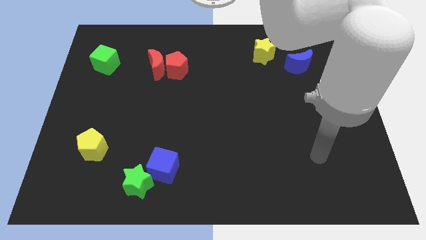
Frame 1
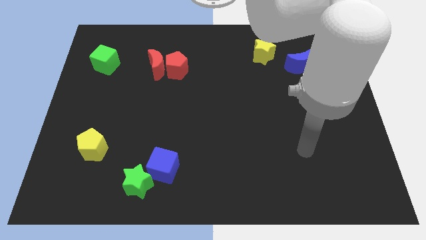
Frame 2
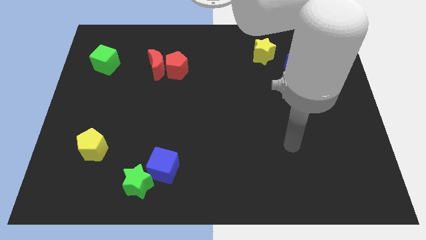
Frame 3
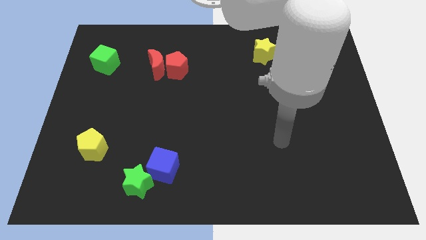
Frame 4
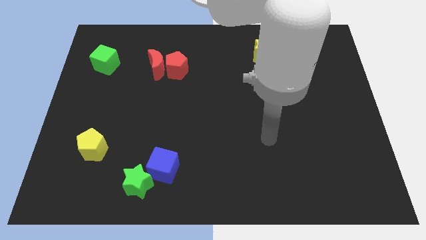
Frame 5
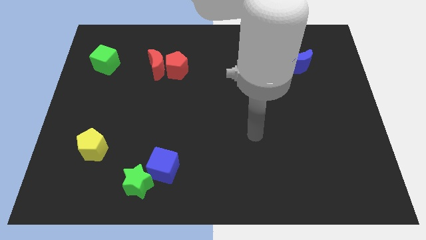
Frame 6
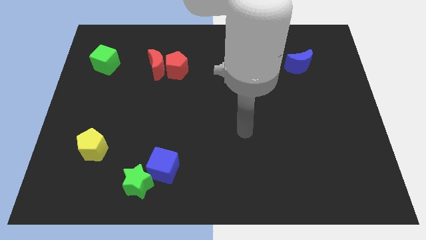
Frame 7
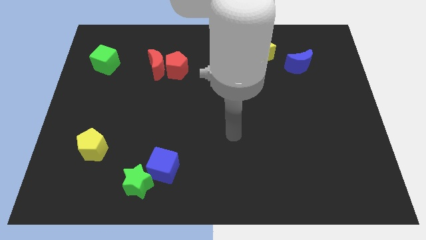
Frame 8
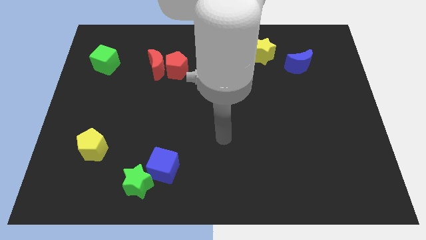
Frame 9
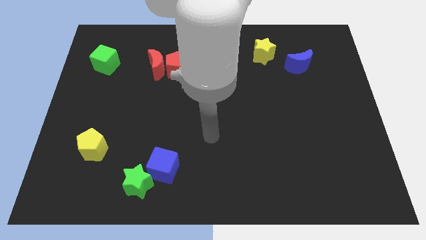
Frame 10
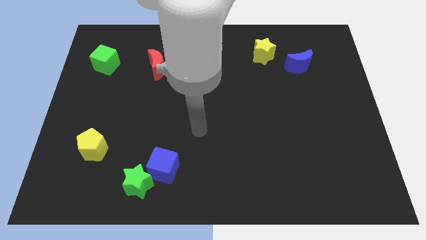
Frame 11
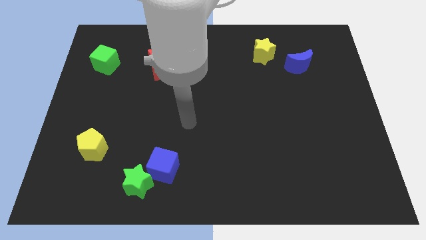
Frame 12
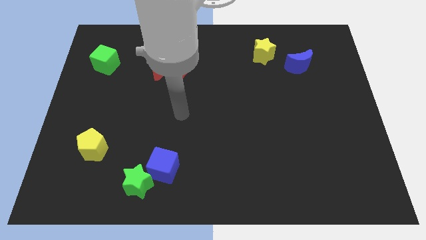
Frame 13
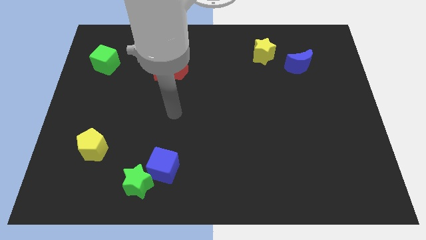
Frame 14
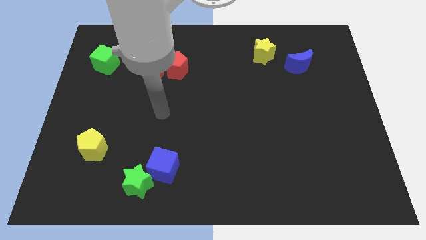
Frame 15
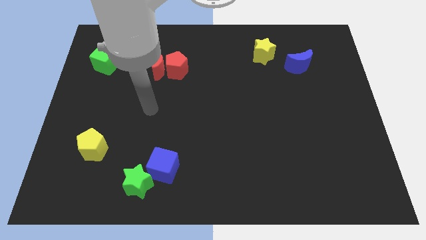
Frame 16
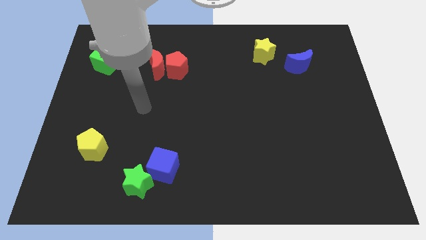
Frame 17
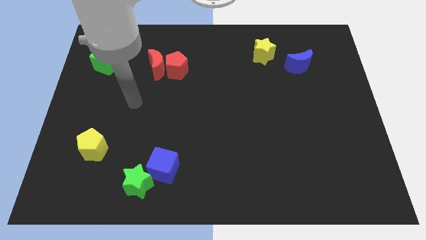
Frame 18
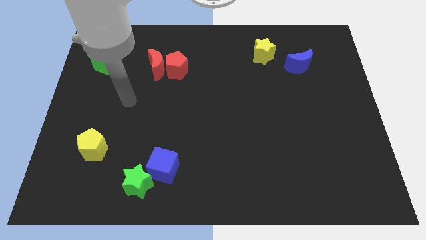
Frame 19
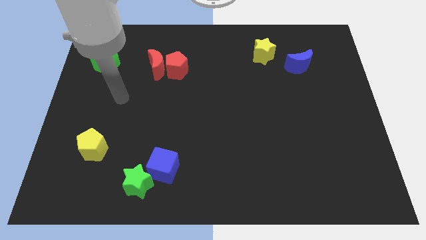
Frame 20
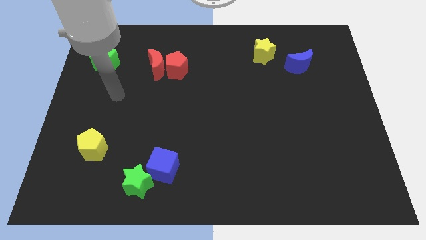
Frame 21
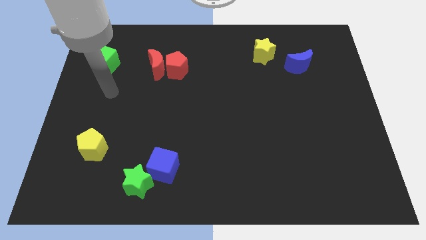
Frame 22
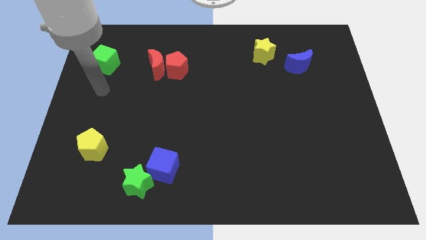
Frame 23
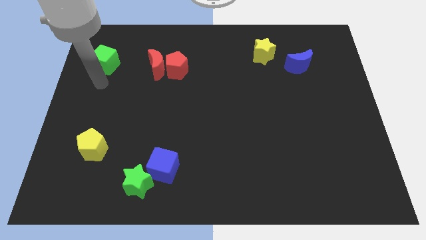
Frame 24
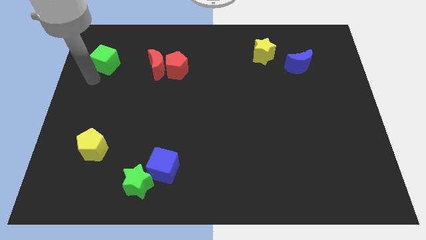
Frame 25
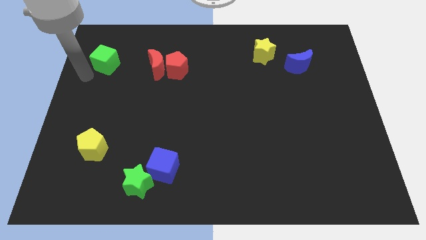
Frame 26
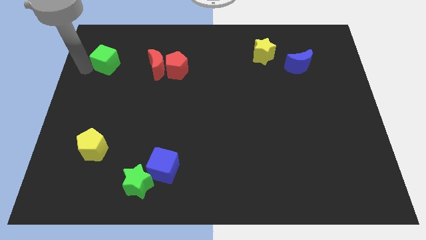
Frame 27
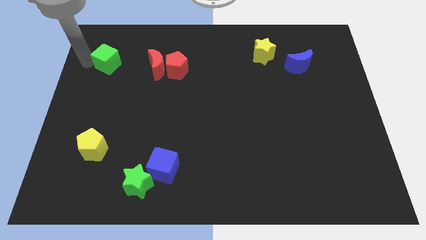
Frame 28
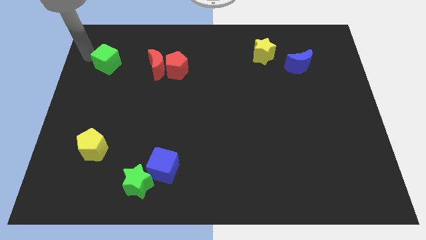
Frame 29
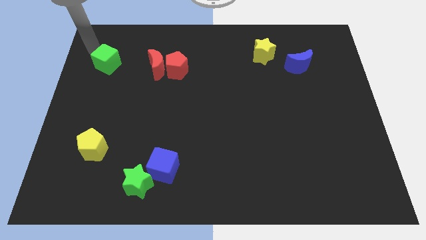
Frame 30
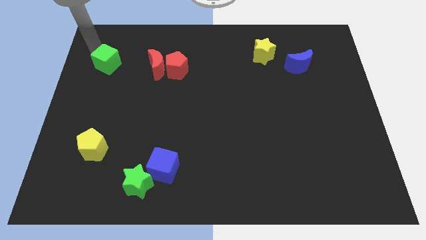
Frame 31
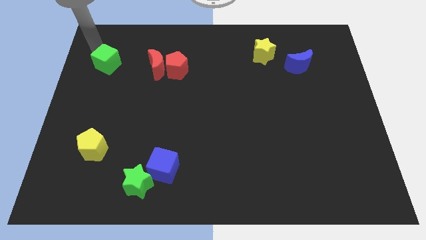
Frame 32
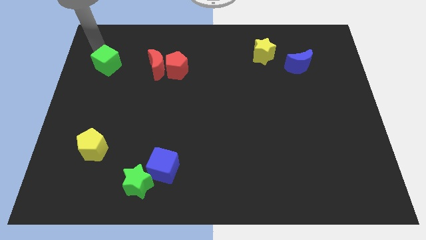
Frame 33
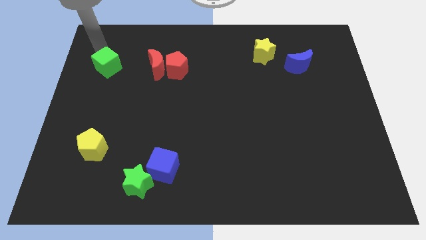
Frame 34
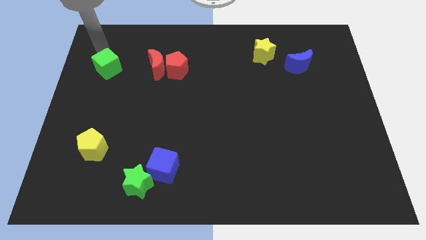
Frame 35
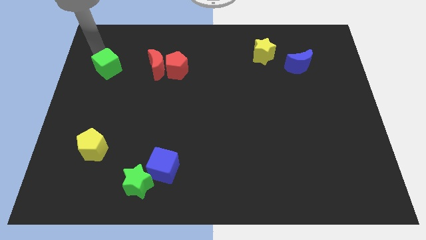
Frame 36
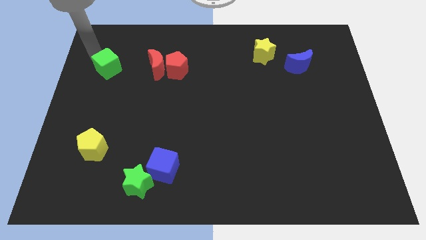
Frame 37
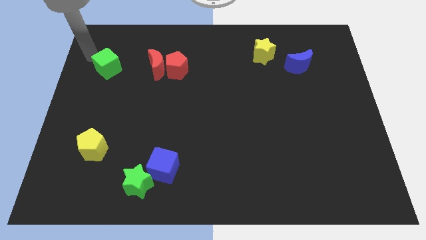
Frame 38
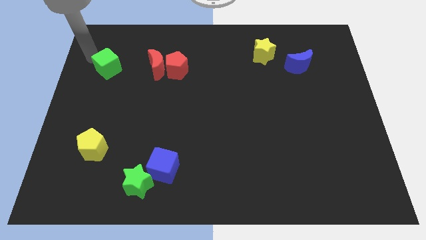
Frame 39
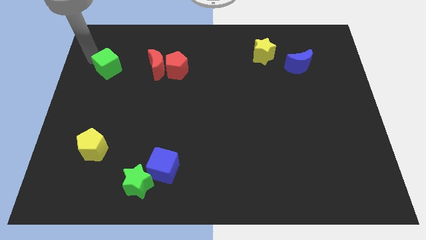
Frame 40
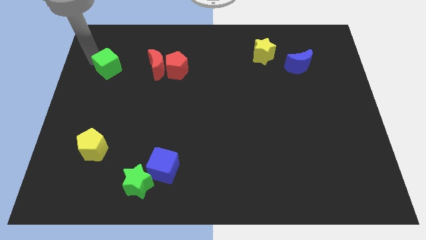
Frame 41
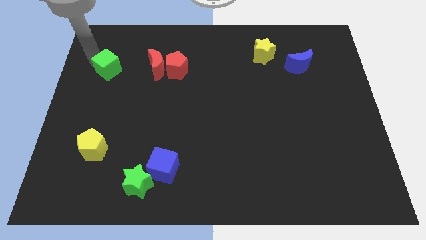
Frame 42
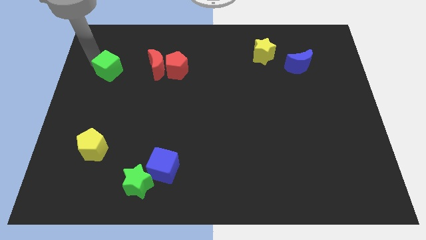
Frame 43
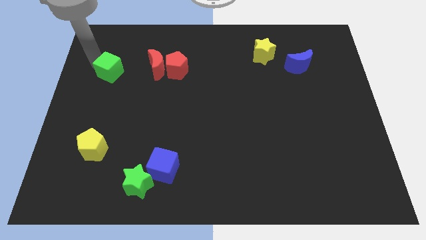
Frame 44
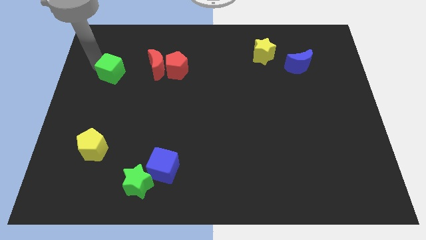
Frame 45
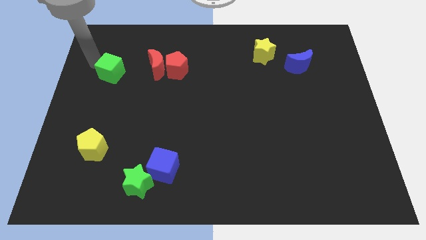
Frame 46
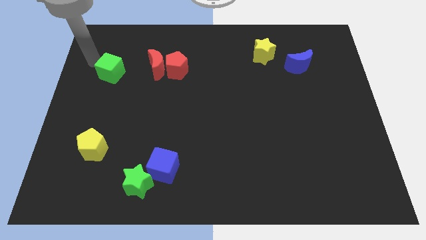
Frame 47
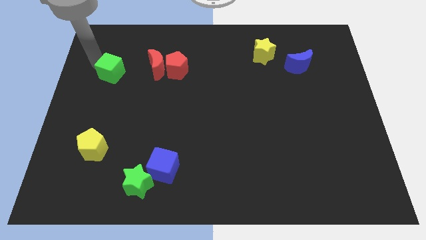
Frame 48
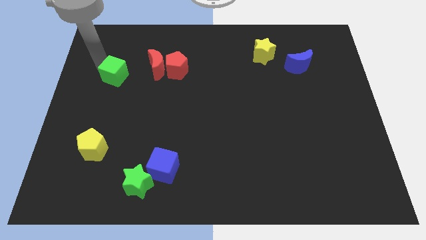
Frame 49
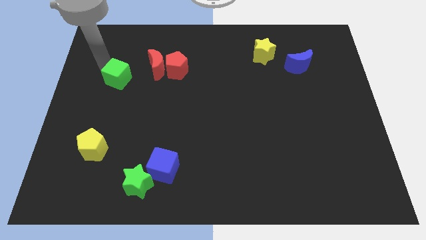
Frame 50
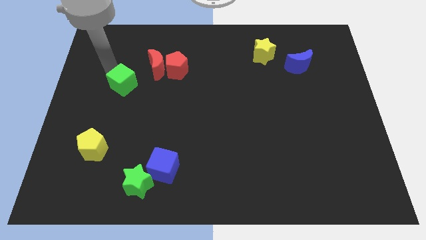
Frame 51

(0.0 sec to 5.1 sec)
slide the green cube slightly down and then right

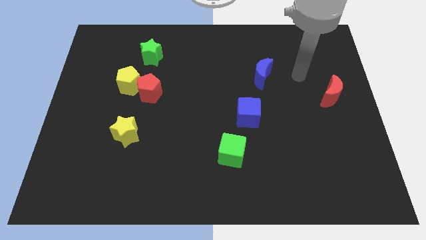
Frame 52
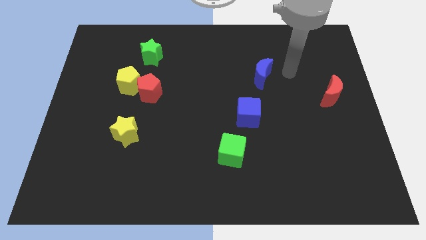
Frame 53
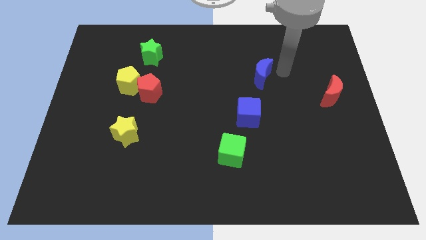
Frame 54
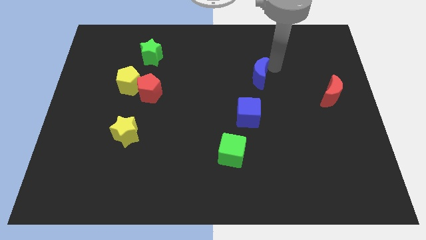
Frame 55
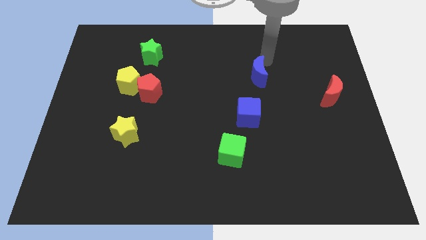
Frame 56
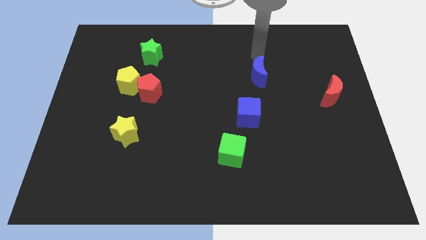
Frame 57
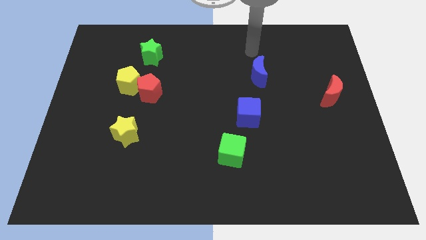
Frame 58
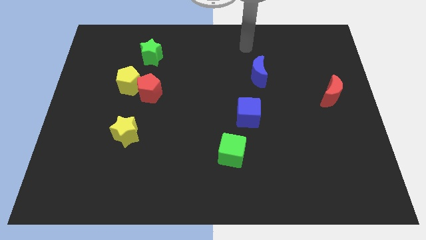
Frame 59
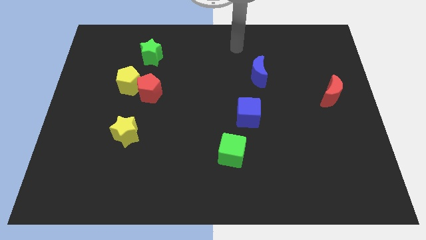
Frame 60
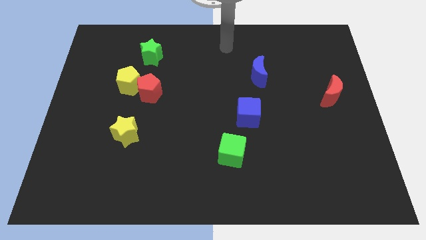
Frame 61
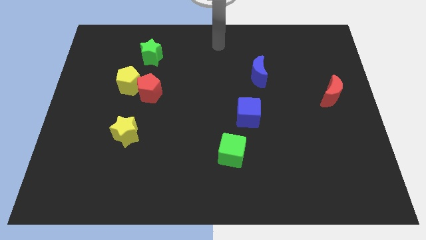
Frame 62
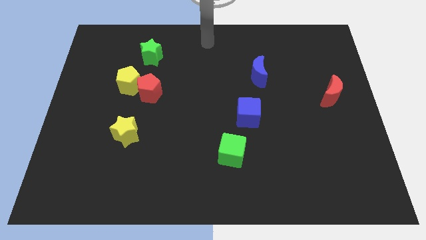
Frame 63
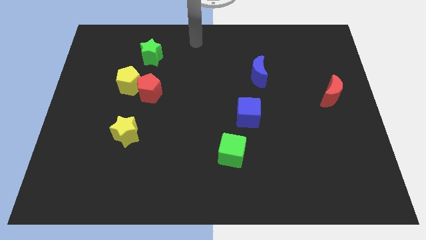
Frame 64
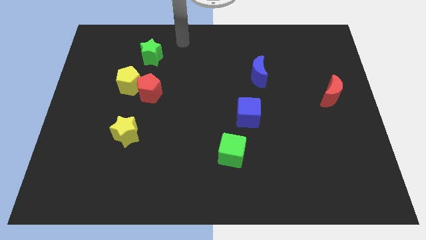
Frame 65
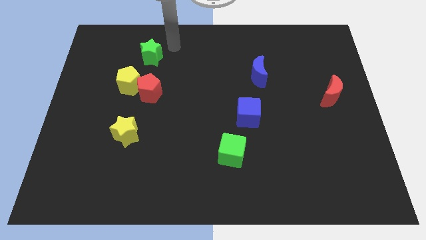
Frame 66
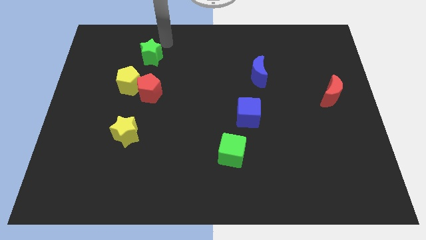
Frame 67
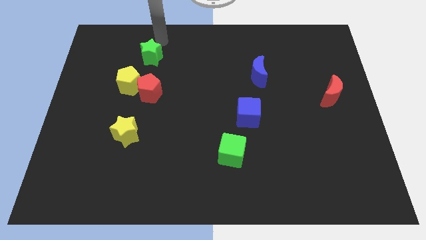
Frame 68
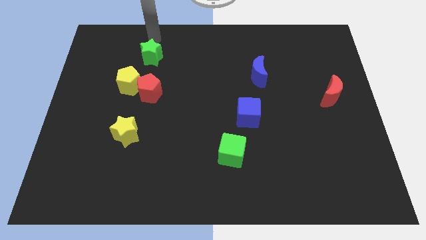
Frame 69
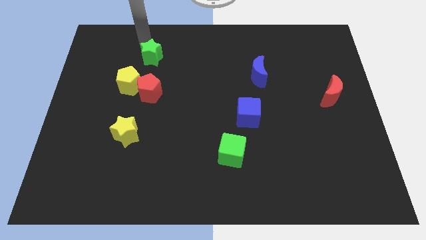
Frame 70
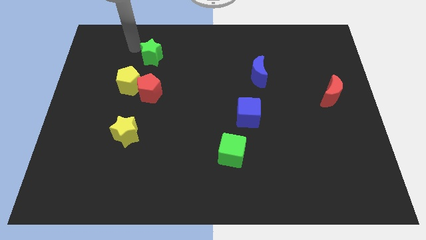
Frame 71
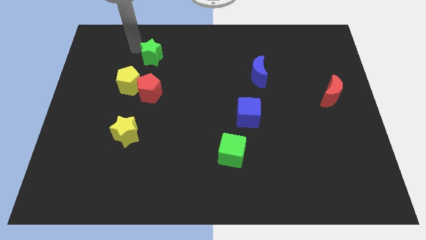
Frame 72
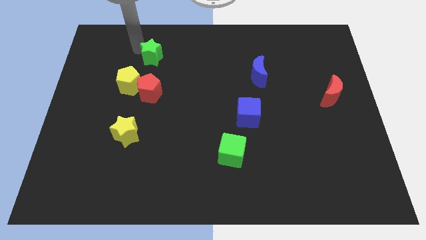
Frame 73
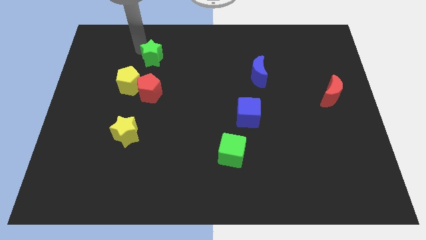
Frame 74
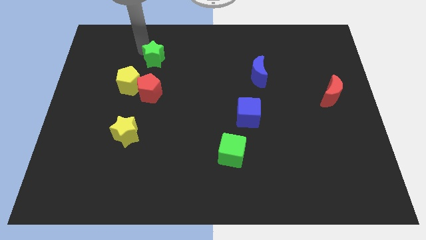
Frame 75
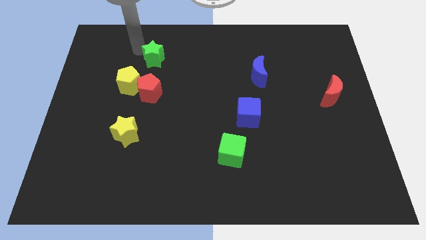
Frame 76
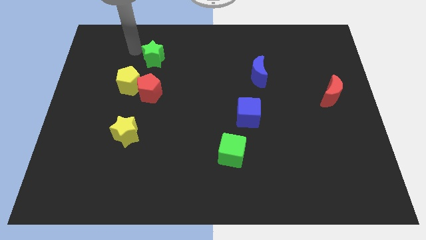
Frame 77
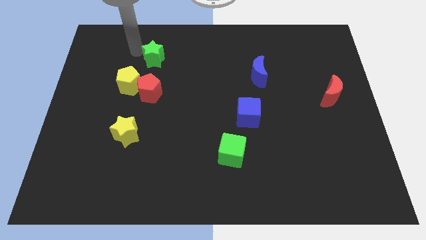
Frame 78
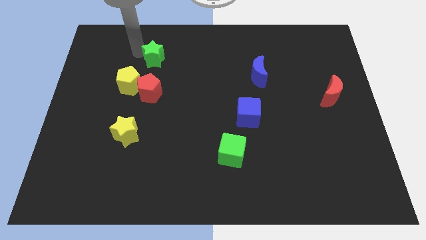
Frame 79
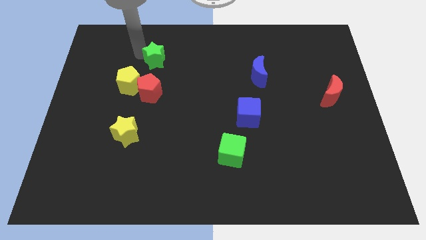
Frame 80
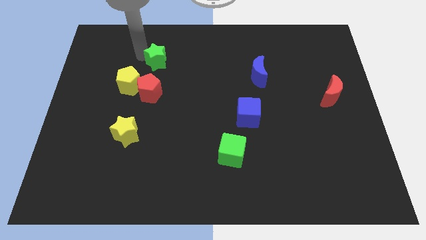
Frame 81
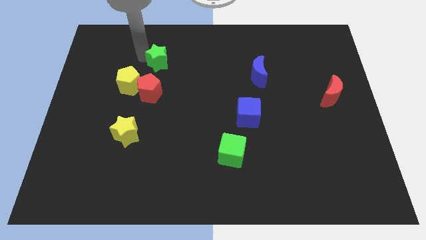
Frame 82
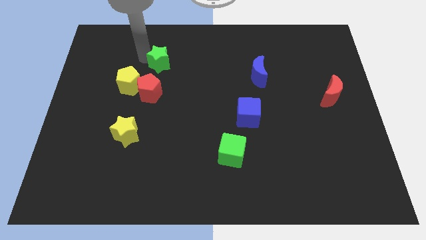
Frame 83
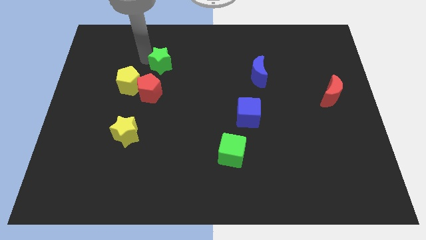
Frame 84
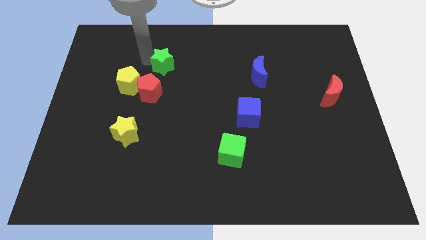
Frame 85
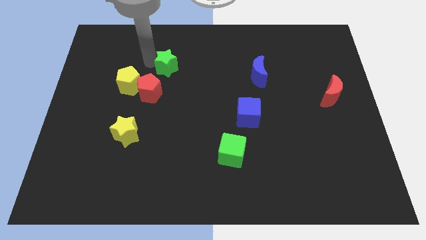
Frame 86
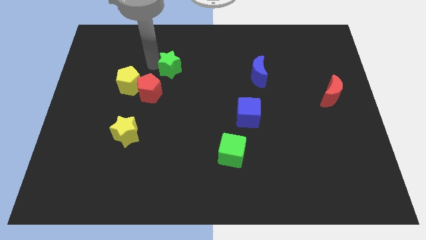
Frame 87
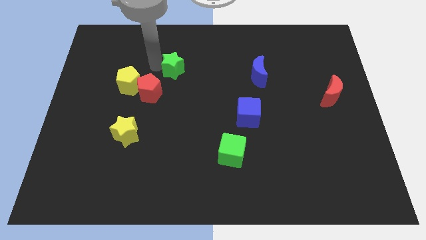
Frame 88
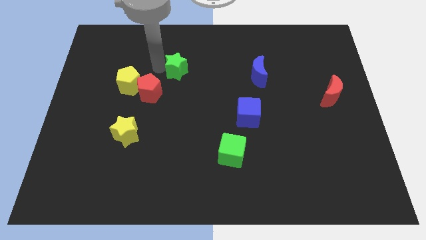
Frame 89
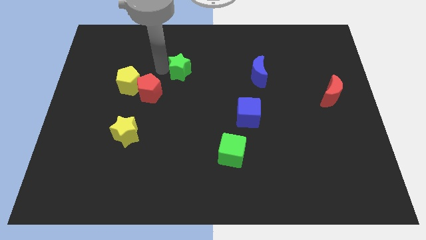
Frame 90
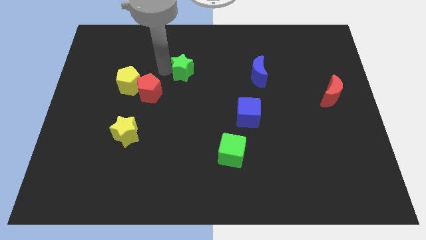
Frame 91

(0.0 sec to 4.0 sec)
slide the green star right a bit
